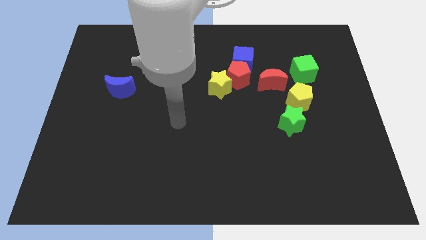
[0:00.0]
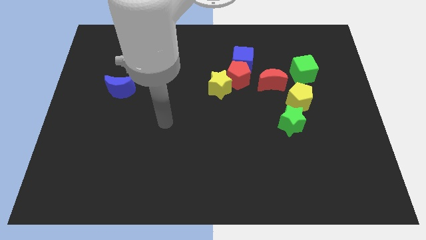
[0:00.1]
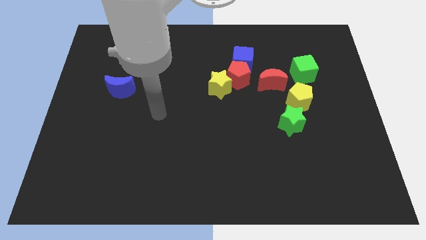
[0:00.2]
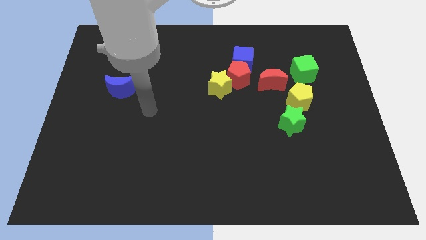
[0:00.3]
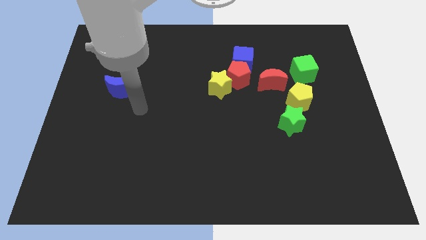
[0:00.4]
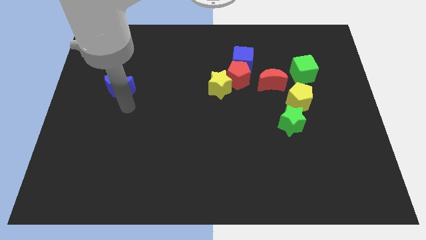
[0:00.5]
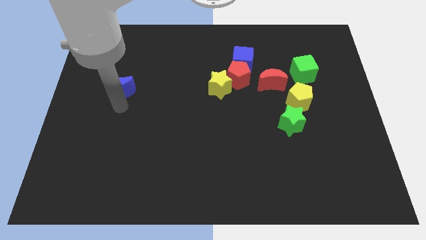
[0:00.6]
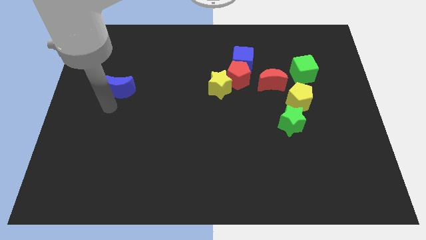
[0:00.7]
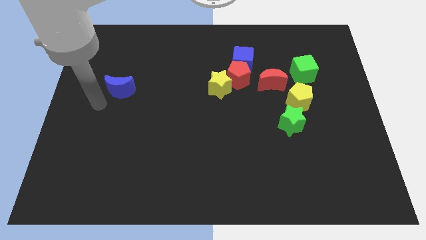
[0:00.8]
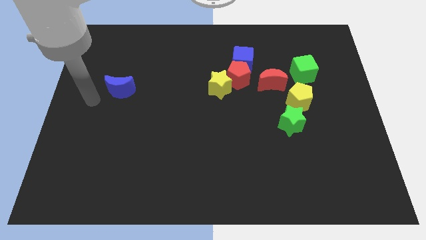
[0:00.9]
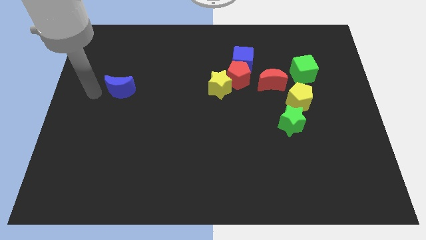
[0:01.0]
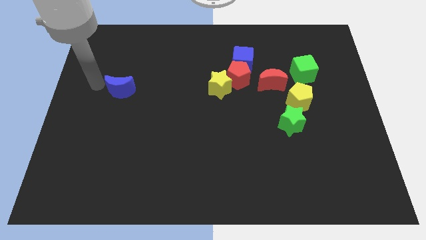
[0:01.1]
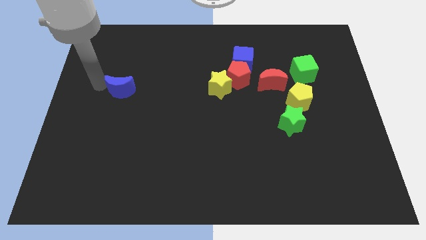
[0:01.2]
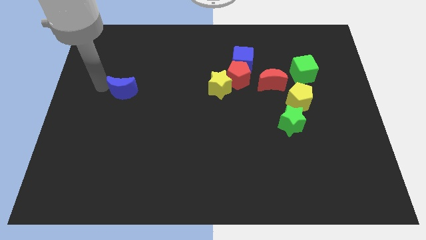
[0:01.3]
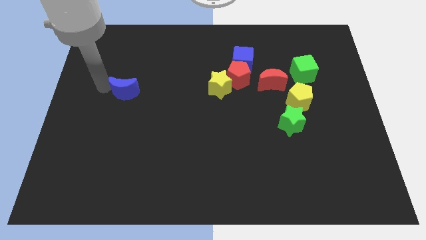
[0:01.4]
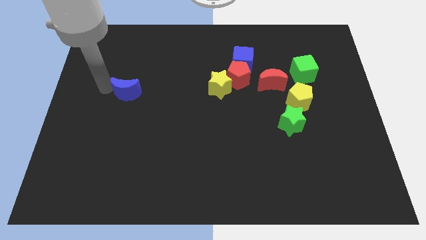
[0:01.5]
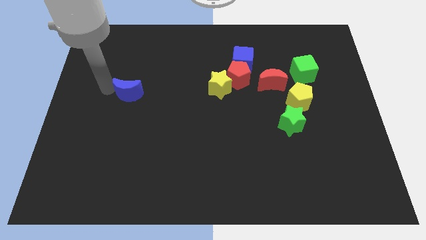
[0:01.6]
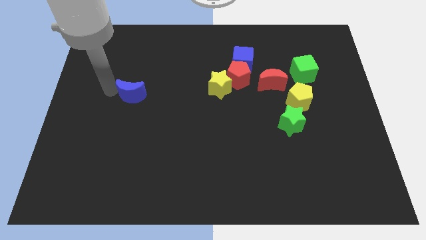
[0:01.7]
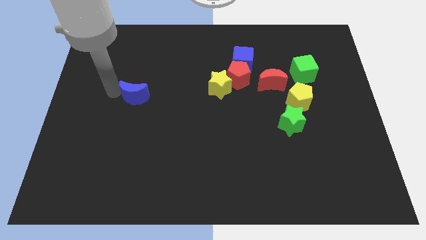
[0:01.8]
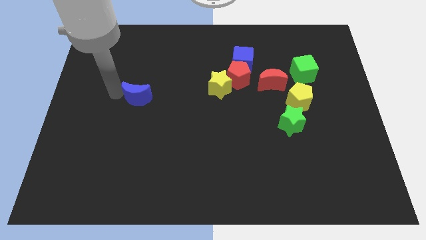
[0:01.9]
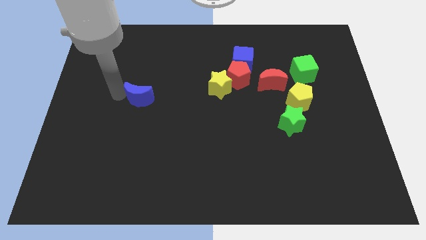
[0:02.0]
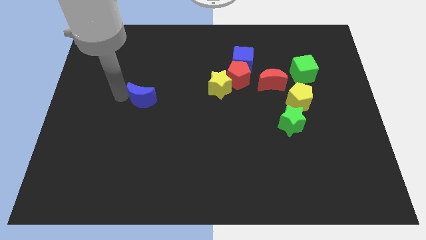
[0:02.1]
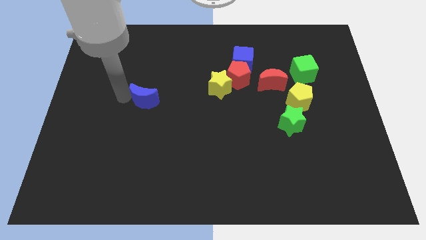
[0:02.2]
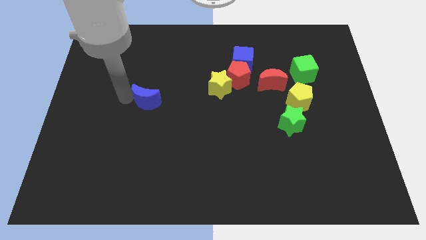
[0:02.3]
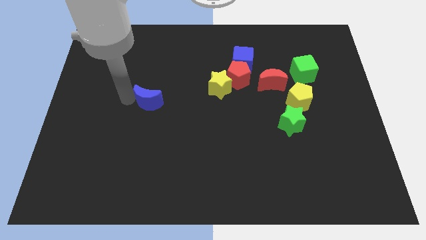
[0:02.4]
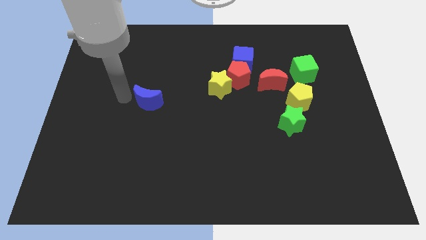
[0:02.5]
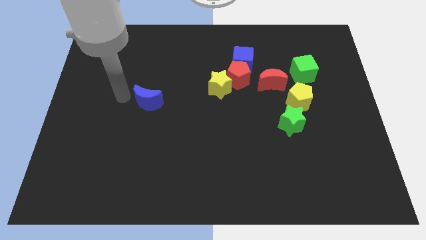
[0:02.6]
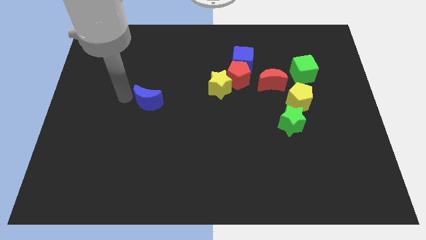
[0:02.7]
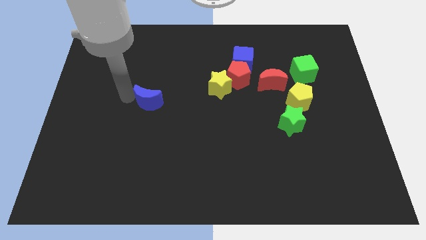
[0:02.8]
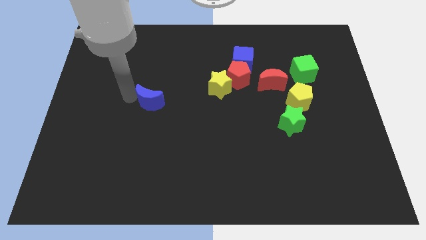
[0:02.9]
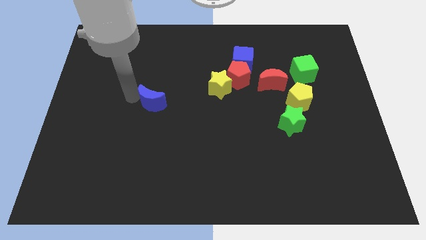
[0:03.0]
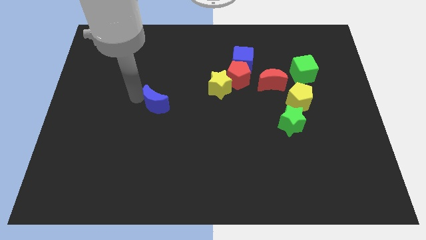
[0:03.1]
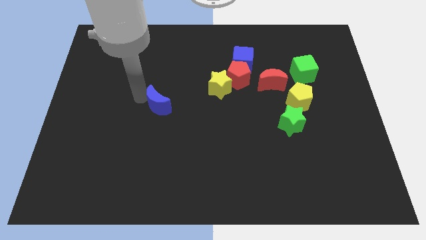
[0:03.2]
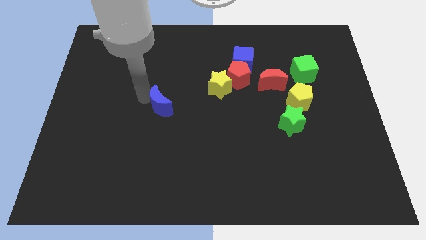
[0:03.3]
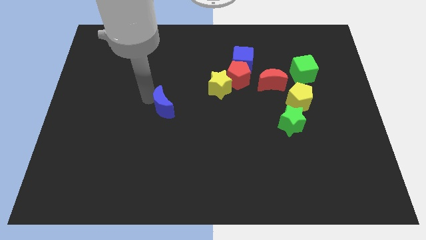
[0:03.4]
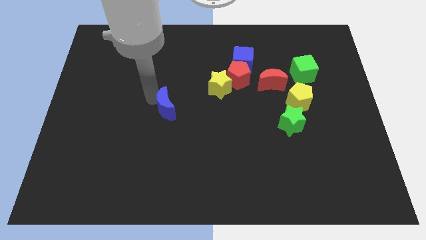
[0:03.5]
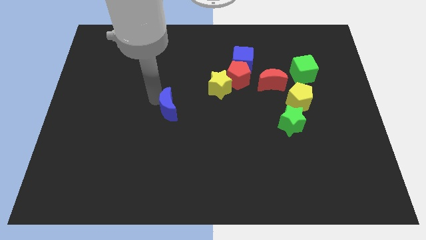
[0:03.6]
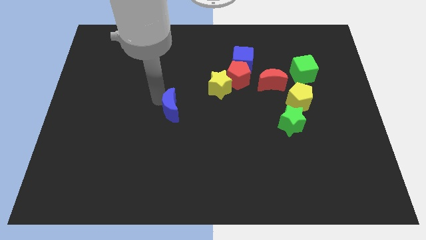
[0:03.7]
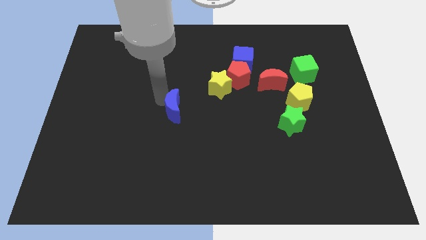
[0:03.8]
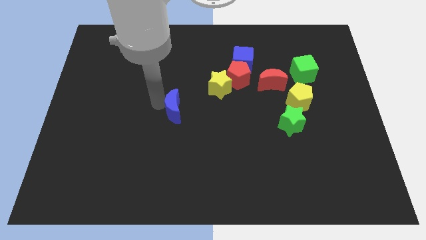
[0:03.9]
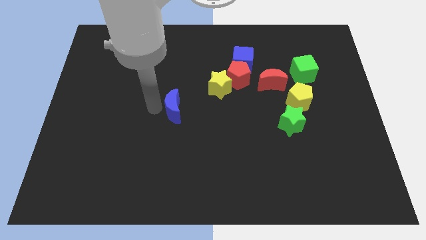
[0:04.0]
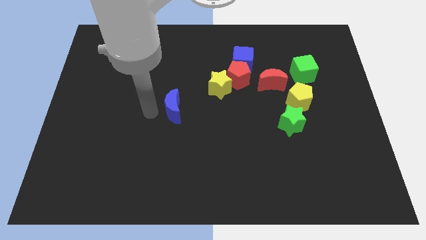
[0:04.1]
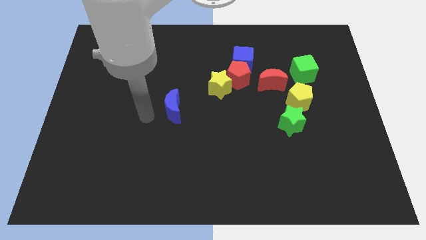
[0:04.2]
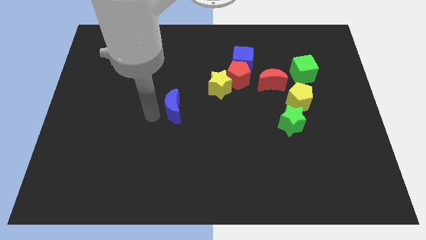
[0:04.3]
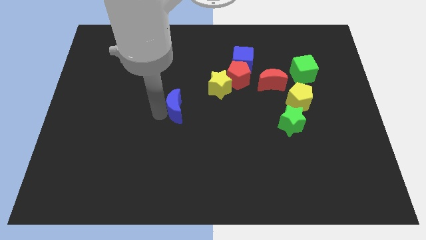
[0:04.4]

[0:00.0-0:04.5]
move the blue moon to the bottom left of the yellow star

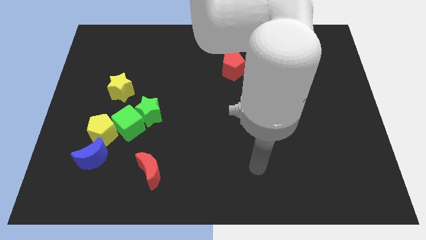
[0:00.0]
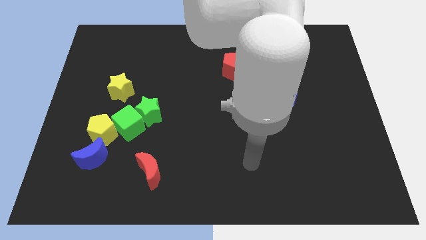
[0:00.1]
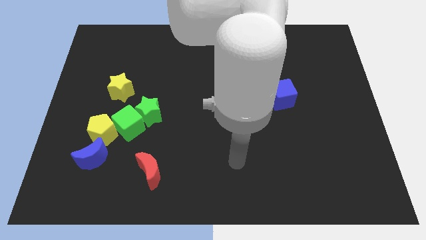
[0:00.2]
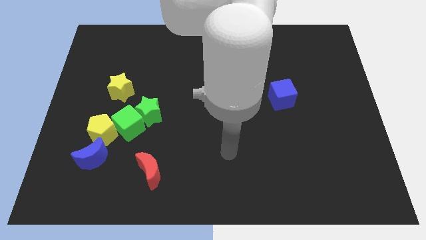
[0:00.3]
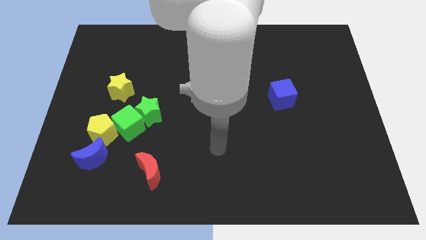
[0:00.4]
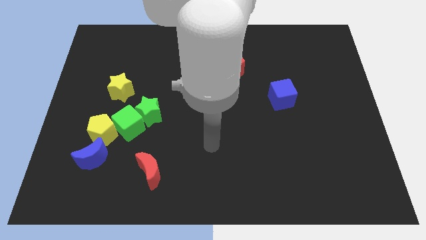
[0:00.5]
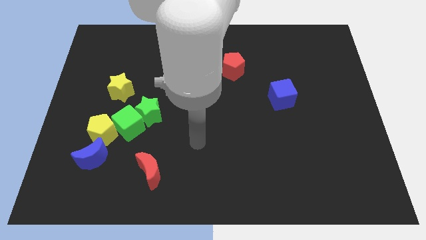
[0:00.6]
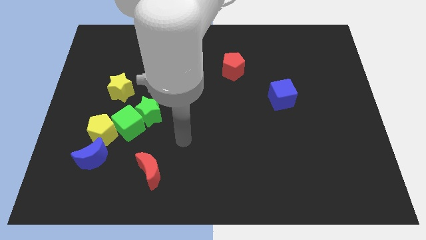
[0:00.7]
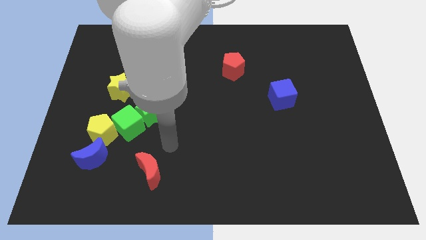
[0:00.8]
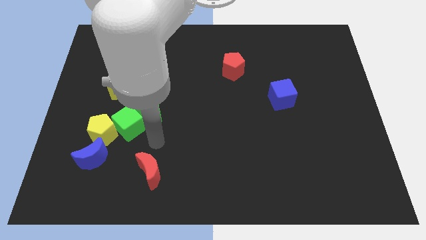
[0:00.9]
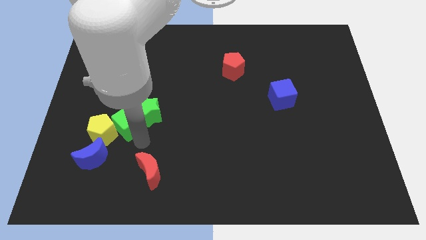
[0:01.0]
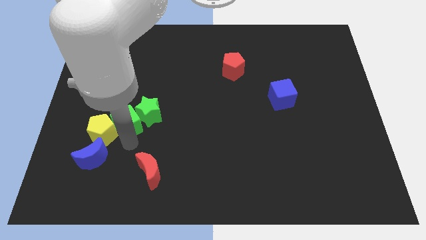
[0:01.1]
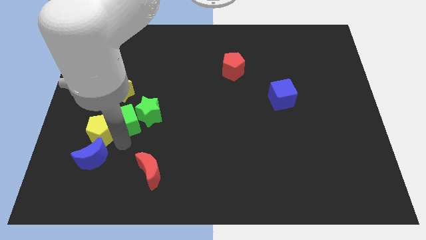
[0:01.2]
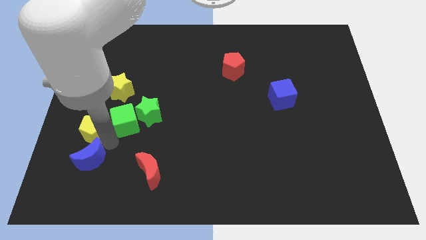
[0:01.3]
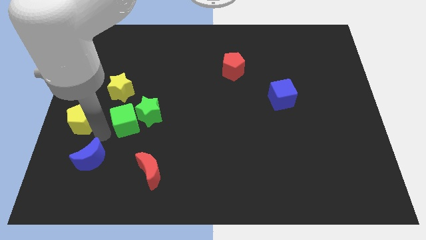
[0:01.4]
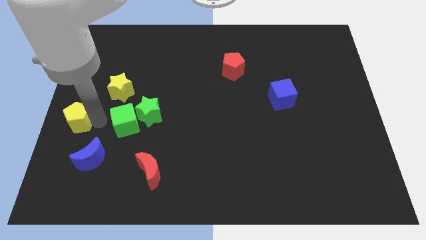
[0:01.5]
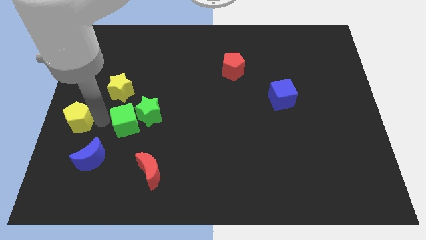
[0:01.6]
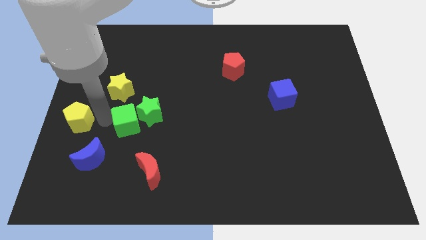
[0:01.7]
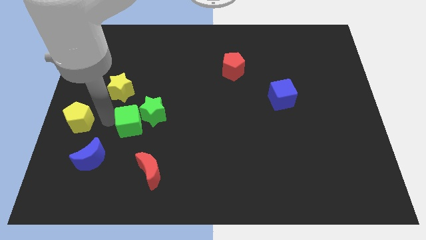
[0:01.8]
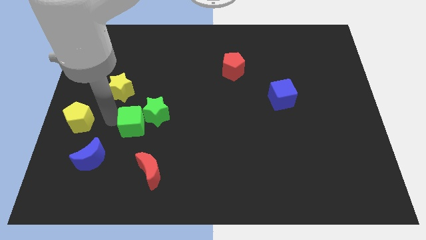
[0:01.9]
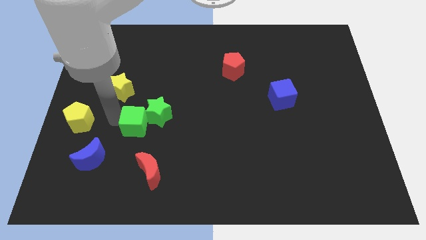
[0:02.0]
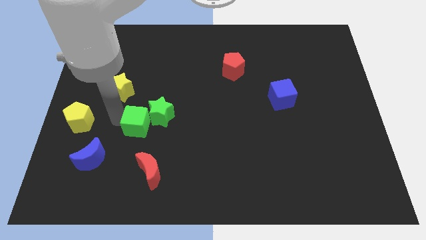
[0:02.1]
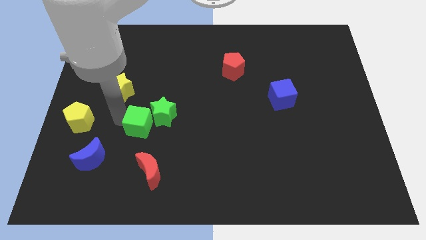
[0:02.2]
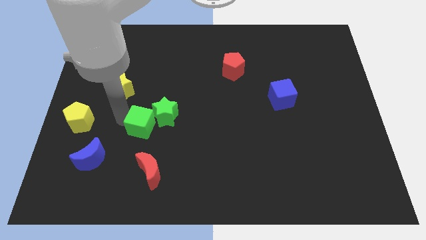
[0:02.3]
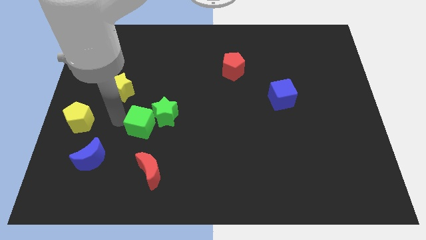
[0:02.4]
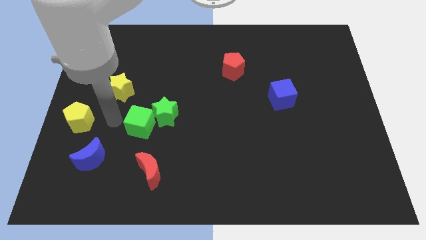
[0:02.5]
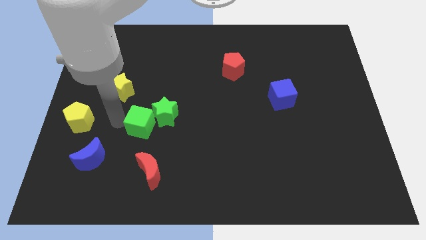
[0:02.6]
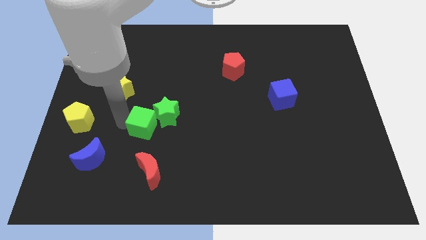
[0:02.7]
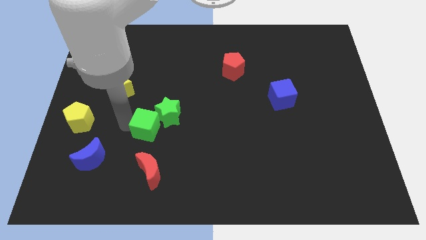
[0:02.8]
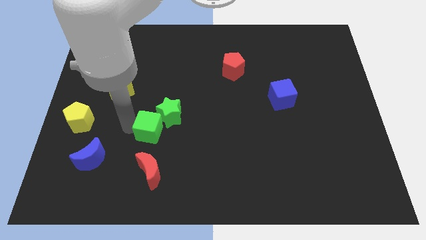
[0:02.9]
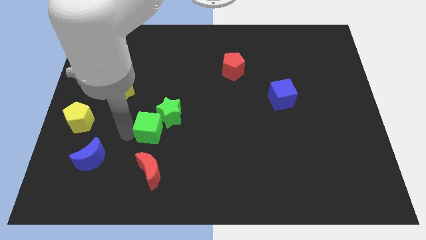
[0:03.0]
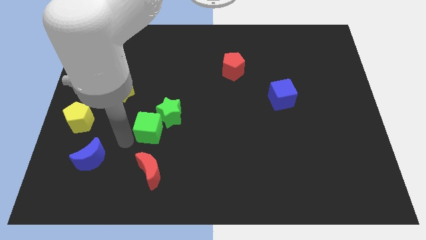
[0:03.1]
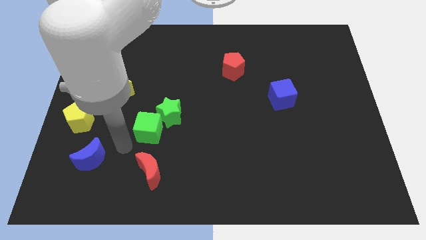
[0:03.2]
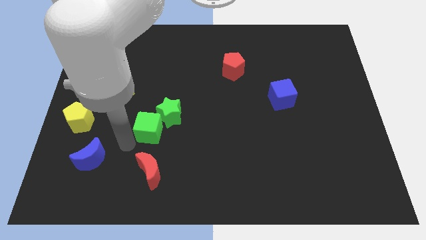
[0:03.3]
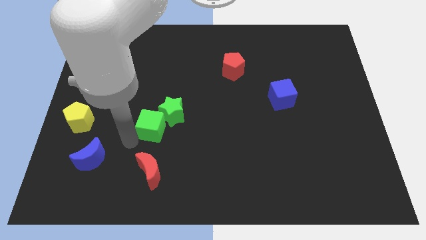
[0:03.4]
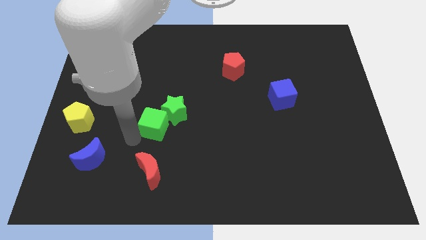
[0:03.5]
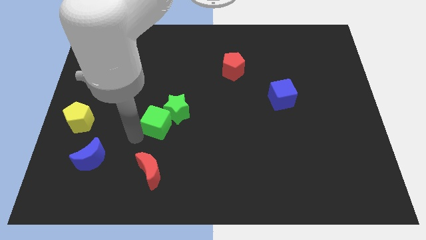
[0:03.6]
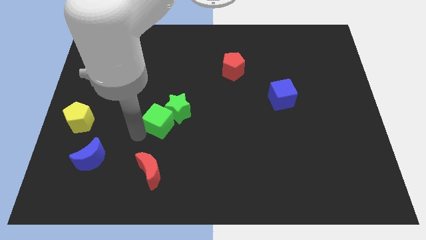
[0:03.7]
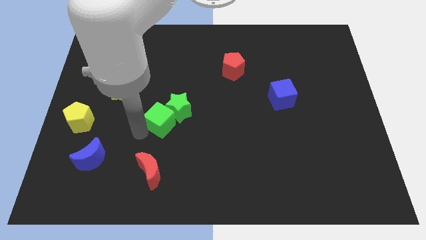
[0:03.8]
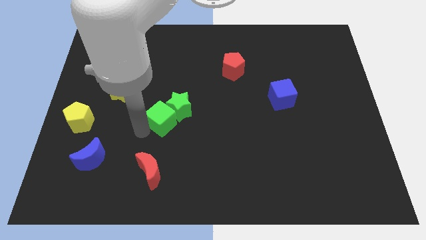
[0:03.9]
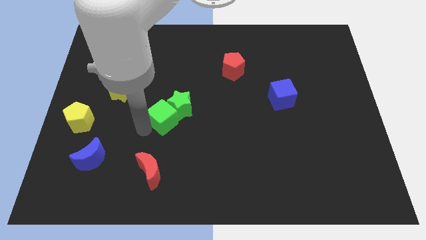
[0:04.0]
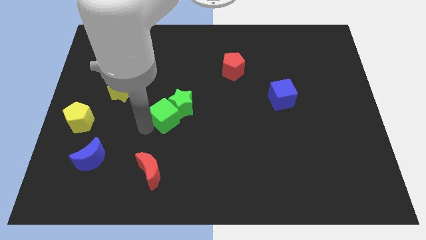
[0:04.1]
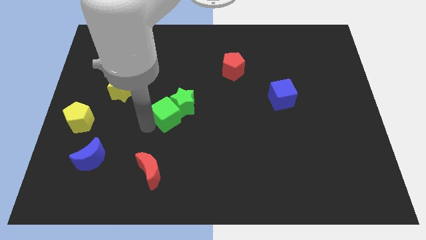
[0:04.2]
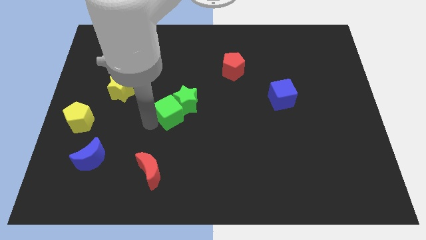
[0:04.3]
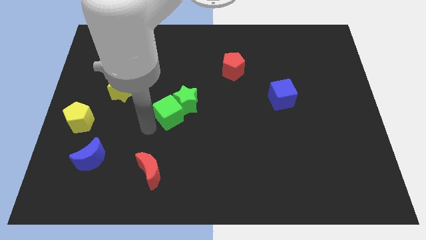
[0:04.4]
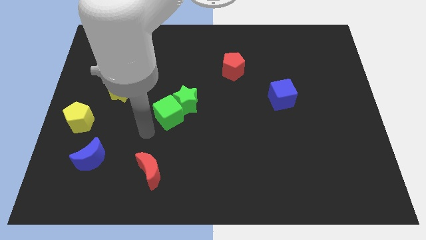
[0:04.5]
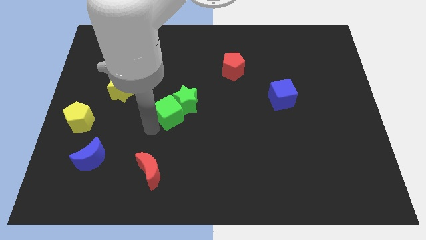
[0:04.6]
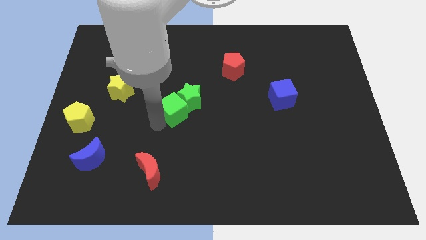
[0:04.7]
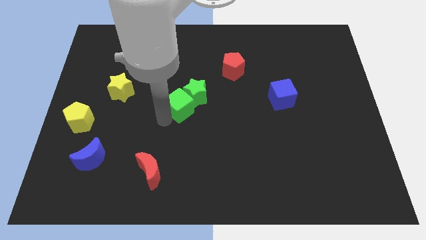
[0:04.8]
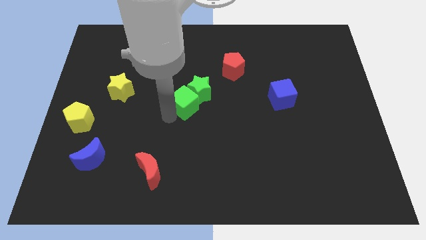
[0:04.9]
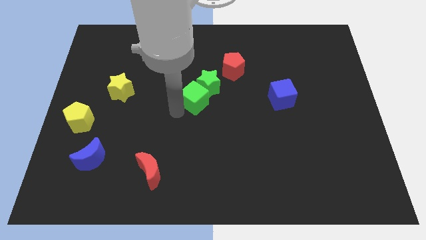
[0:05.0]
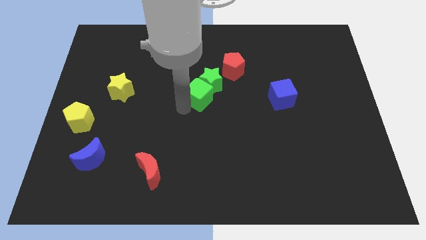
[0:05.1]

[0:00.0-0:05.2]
move the green cube to the bottom left side of the red pentagon
